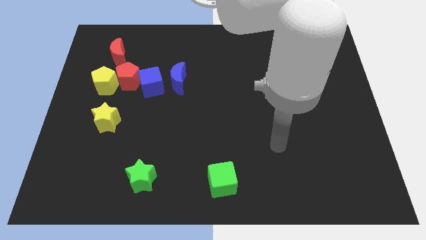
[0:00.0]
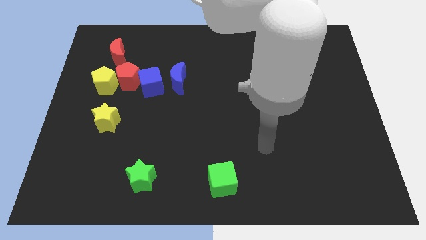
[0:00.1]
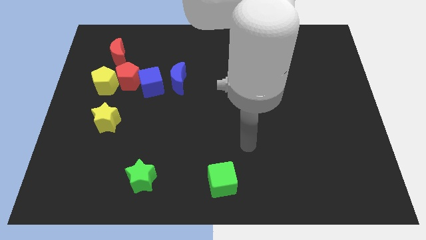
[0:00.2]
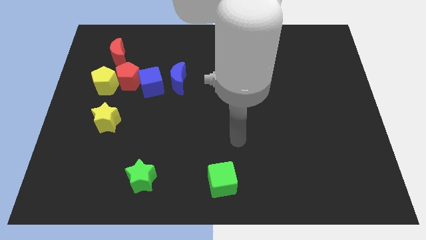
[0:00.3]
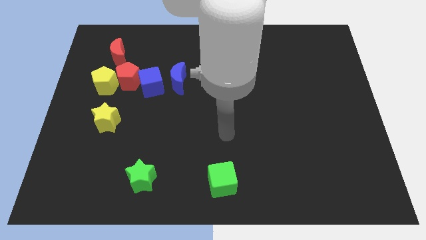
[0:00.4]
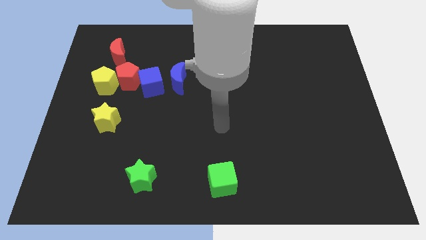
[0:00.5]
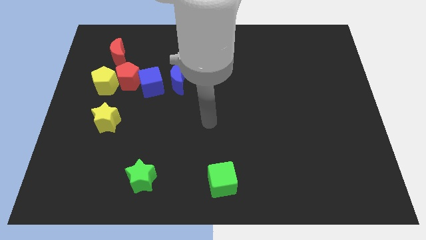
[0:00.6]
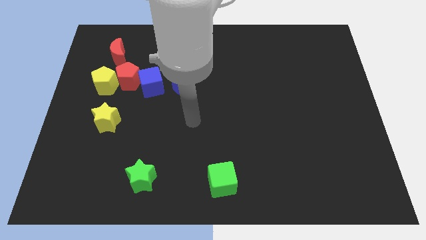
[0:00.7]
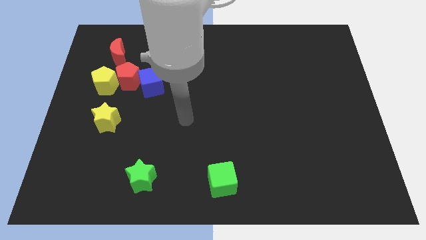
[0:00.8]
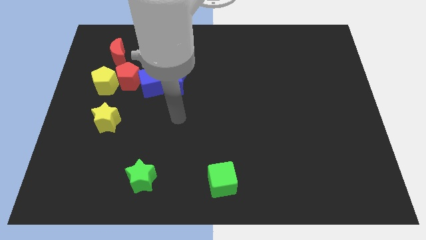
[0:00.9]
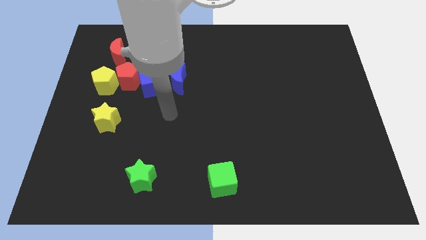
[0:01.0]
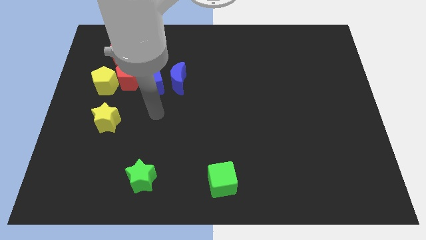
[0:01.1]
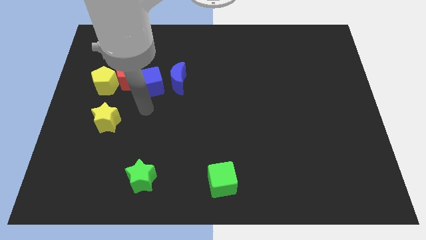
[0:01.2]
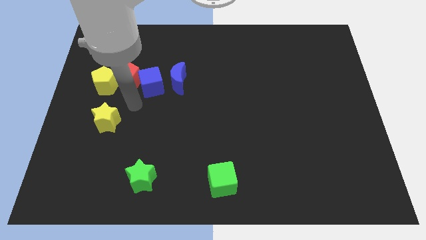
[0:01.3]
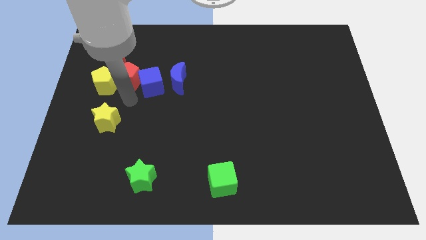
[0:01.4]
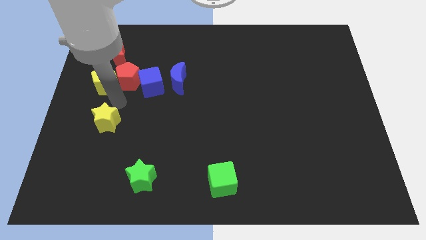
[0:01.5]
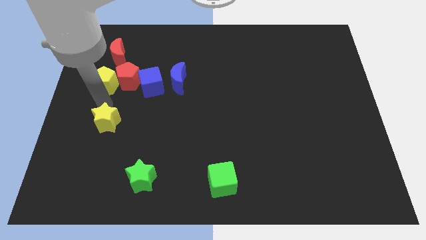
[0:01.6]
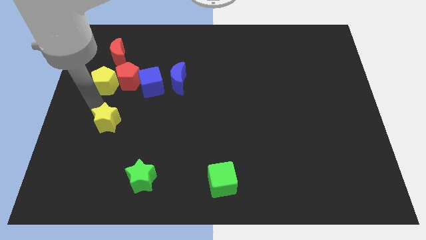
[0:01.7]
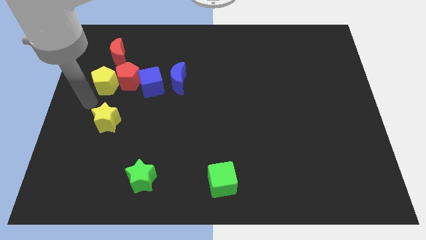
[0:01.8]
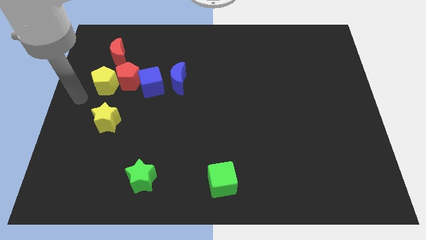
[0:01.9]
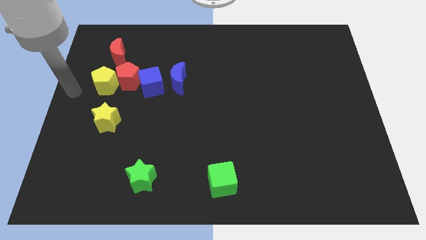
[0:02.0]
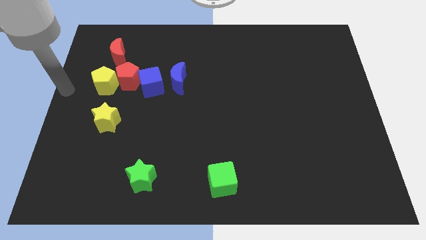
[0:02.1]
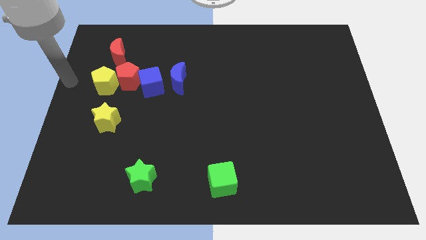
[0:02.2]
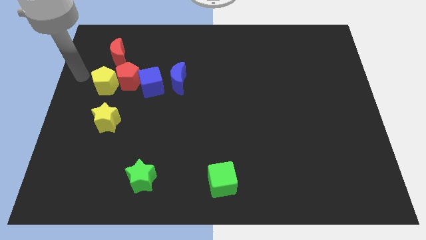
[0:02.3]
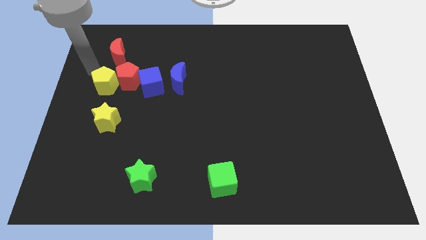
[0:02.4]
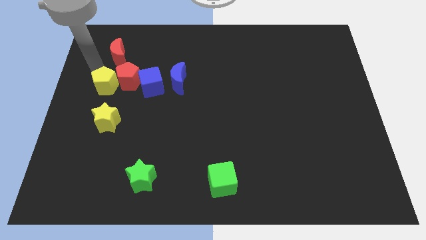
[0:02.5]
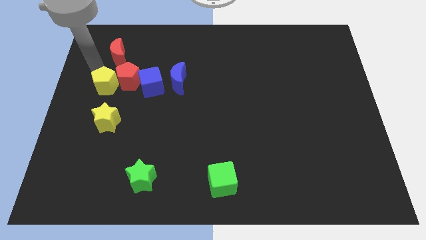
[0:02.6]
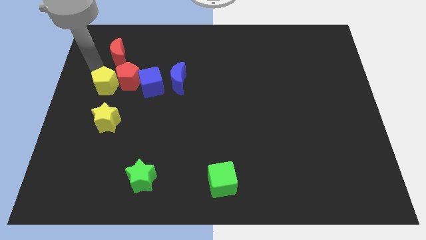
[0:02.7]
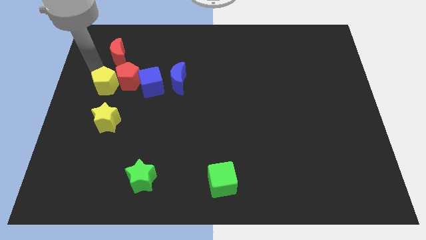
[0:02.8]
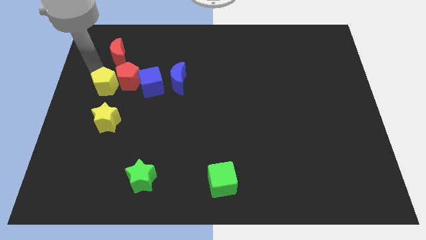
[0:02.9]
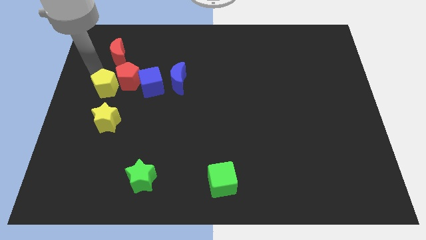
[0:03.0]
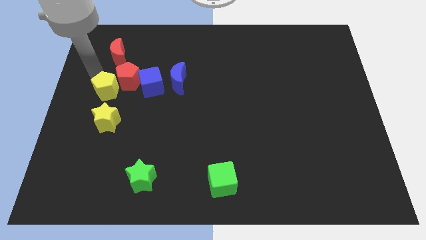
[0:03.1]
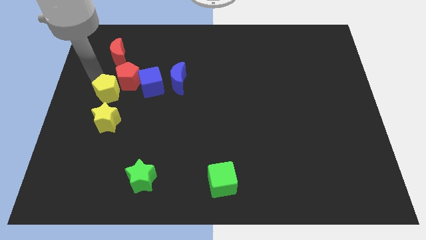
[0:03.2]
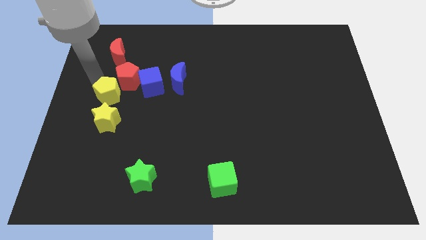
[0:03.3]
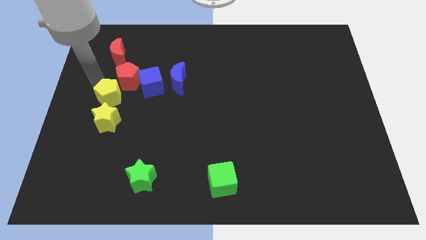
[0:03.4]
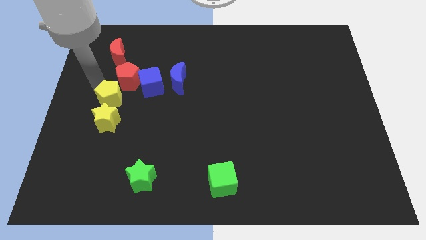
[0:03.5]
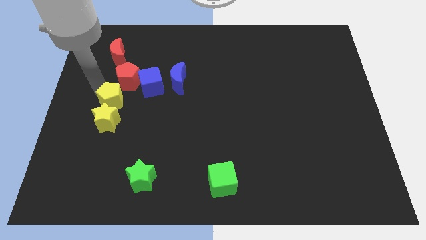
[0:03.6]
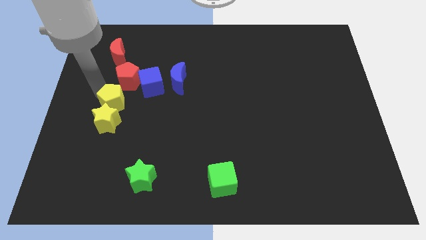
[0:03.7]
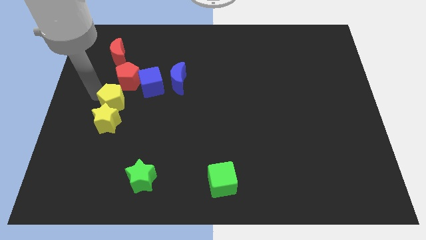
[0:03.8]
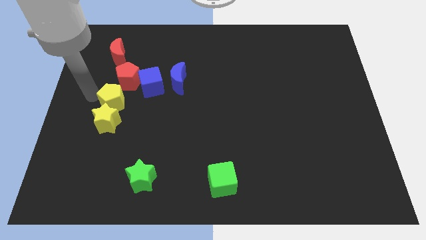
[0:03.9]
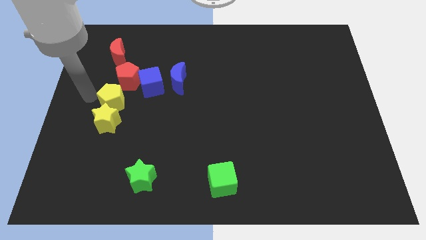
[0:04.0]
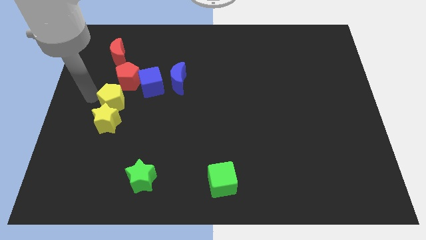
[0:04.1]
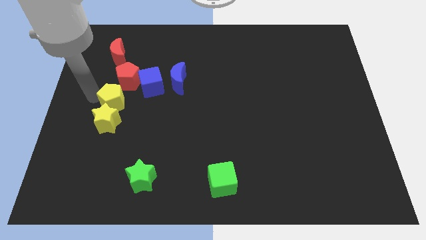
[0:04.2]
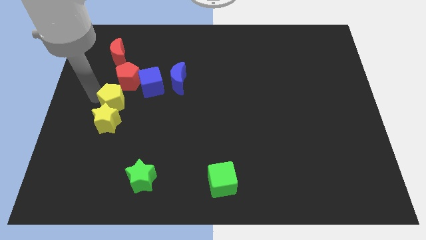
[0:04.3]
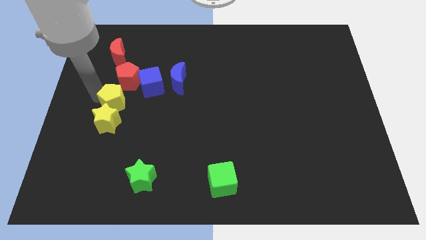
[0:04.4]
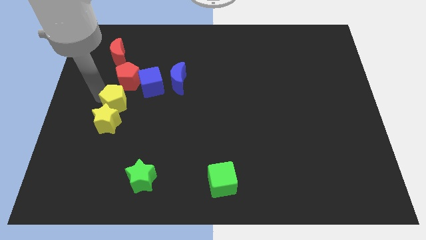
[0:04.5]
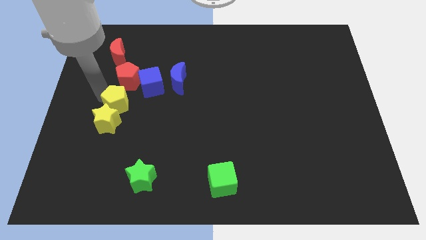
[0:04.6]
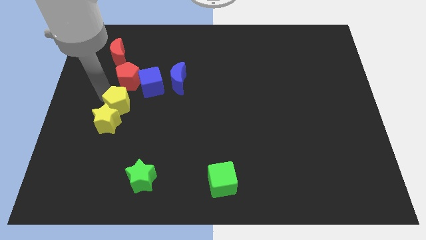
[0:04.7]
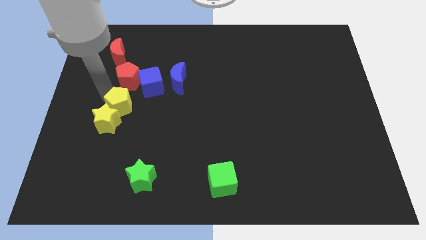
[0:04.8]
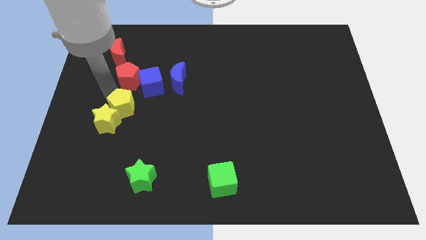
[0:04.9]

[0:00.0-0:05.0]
put the yellow pentagon to the right of the yellow star

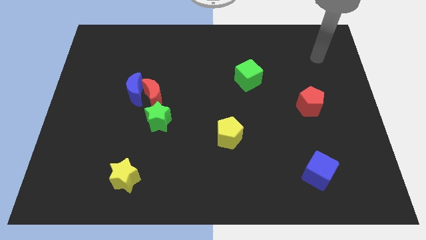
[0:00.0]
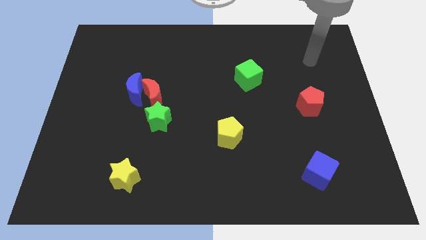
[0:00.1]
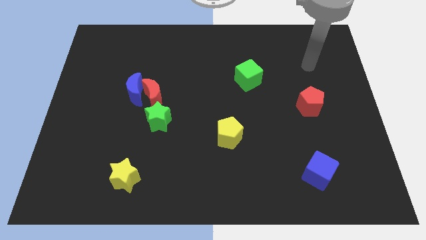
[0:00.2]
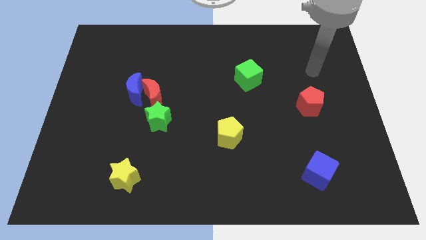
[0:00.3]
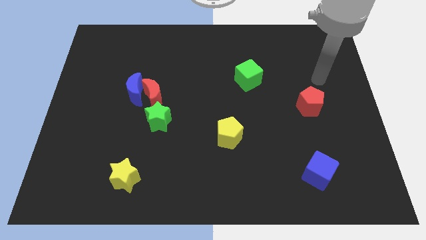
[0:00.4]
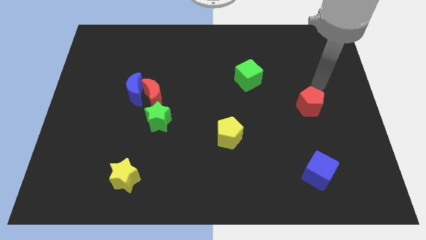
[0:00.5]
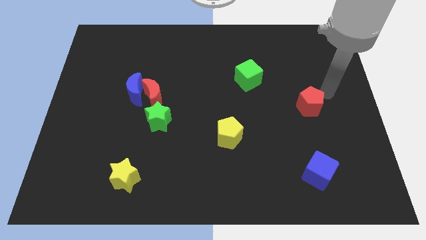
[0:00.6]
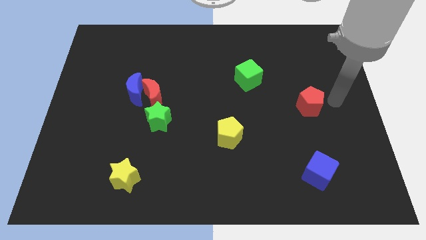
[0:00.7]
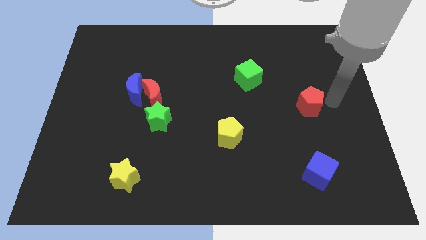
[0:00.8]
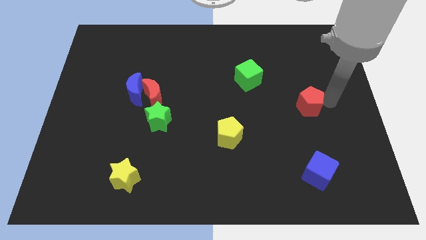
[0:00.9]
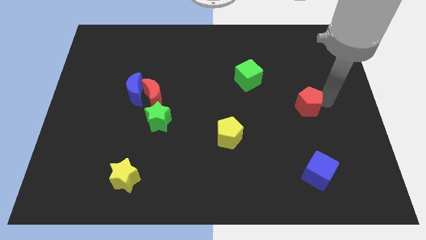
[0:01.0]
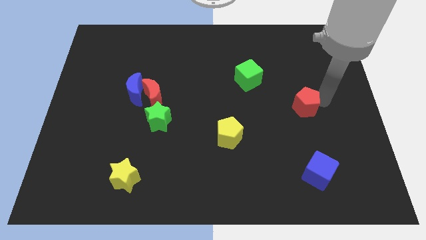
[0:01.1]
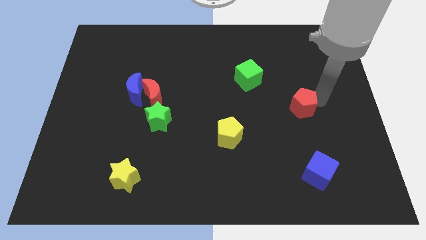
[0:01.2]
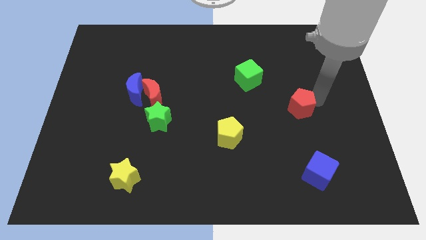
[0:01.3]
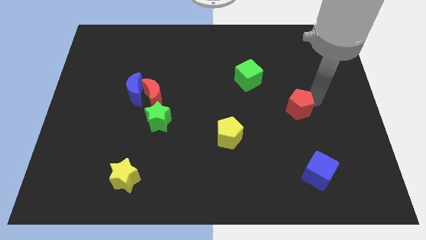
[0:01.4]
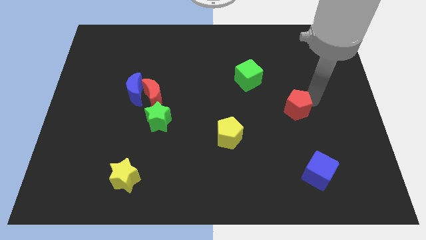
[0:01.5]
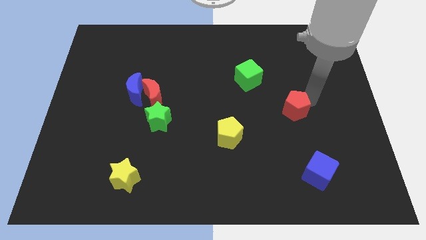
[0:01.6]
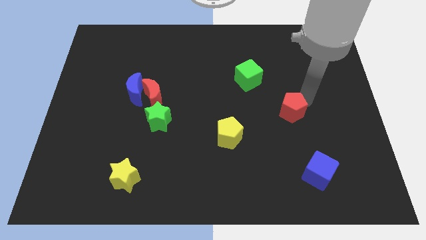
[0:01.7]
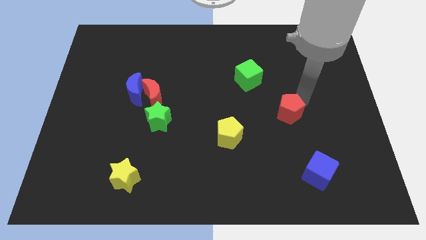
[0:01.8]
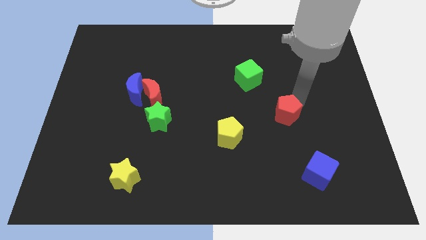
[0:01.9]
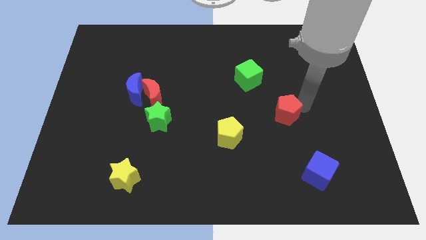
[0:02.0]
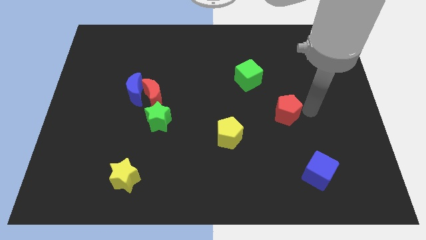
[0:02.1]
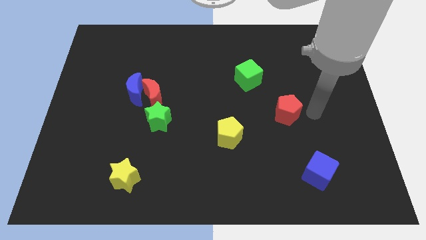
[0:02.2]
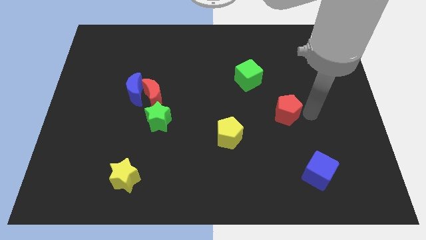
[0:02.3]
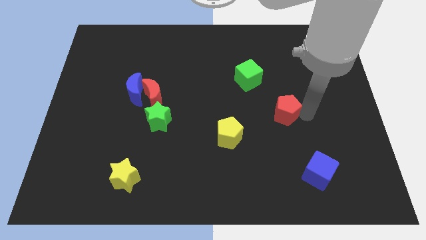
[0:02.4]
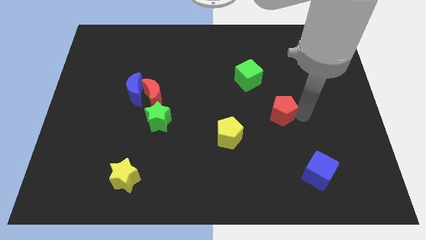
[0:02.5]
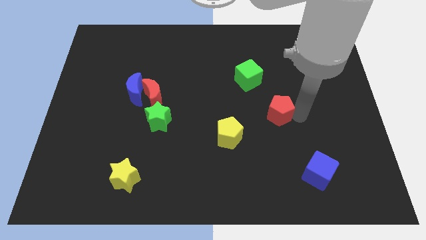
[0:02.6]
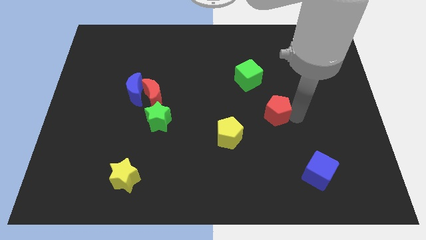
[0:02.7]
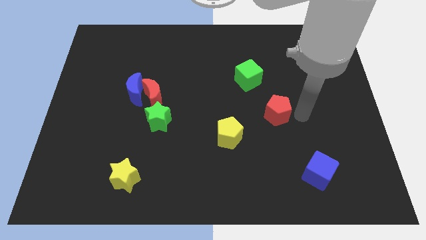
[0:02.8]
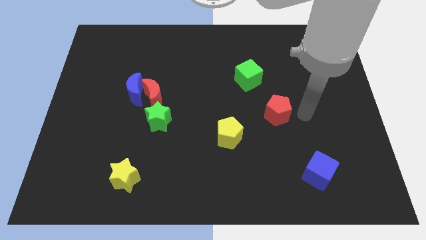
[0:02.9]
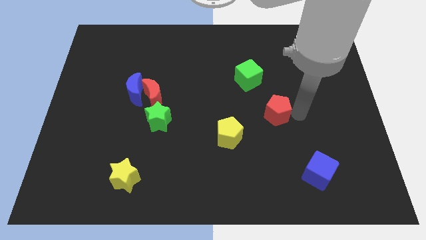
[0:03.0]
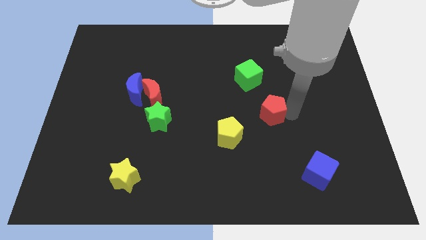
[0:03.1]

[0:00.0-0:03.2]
push the red pentagon below the green cube
